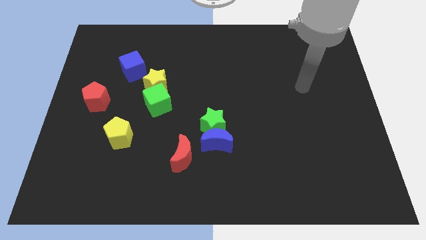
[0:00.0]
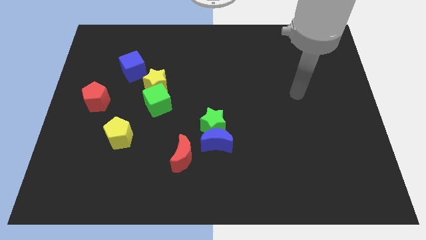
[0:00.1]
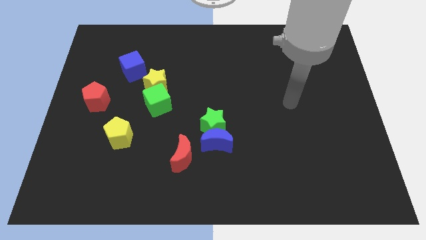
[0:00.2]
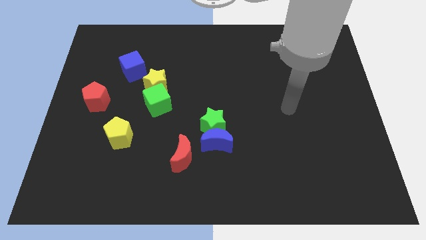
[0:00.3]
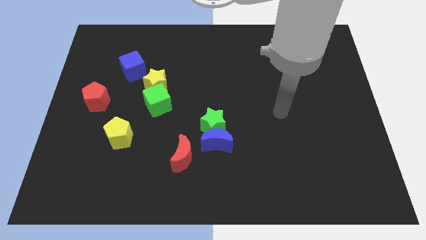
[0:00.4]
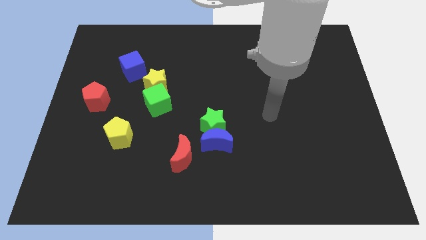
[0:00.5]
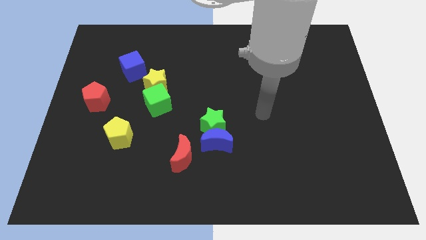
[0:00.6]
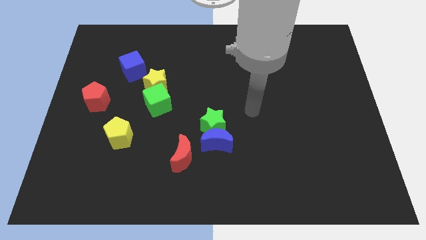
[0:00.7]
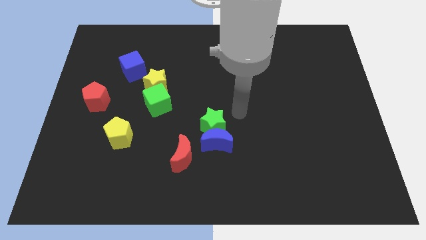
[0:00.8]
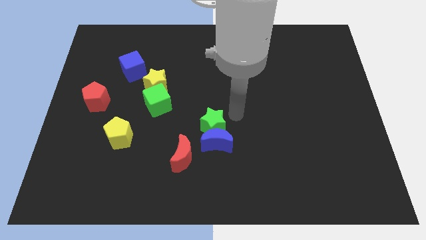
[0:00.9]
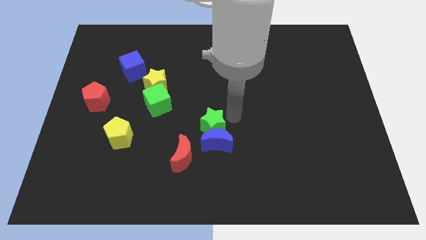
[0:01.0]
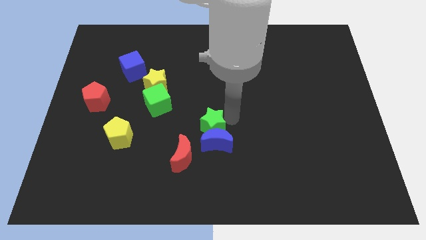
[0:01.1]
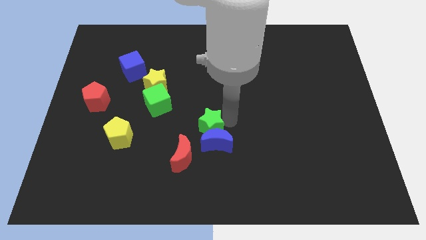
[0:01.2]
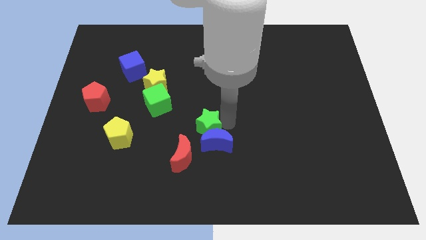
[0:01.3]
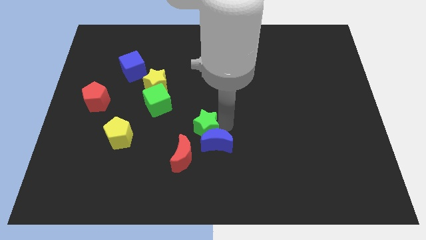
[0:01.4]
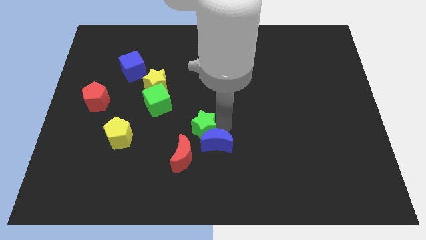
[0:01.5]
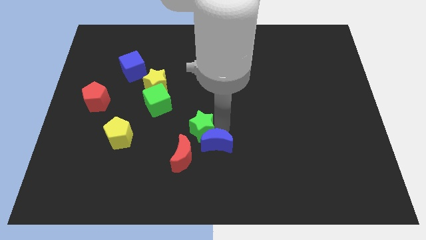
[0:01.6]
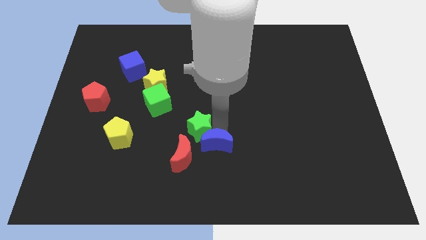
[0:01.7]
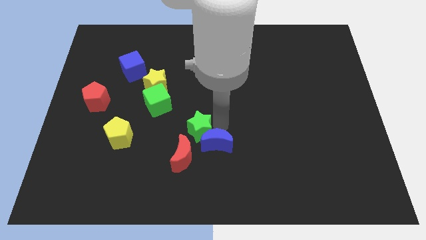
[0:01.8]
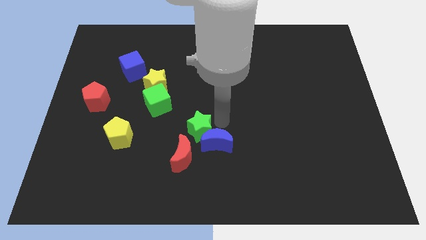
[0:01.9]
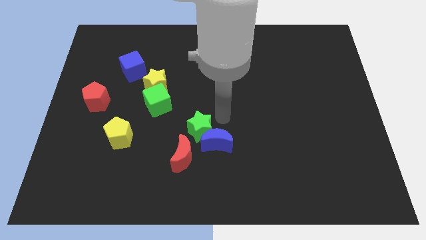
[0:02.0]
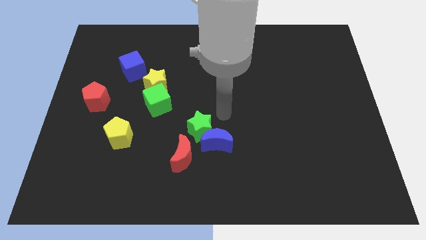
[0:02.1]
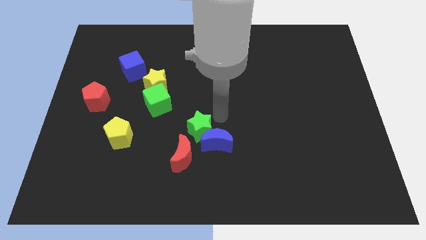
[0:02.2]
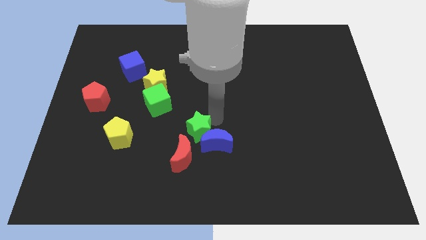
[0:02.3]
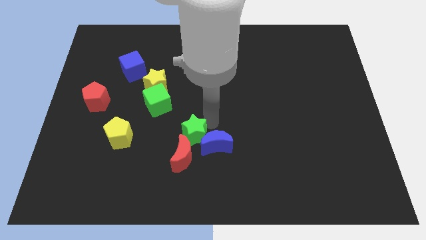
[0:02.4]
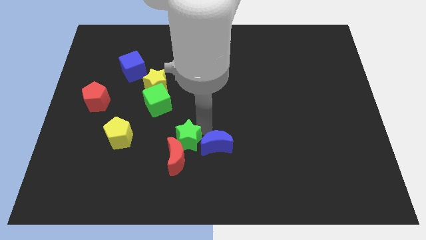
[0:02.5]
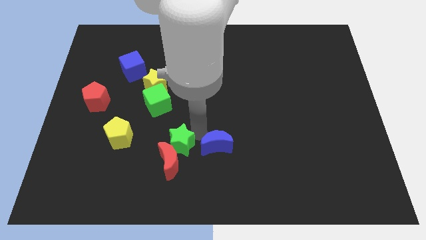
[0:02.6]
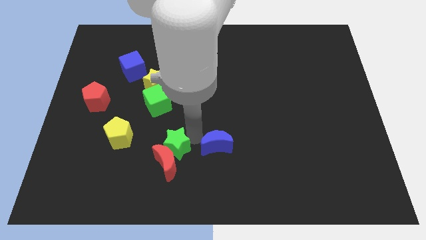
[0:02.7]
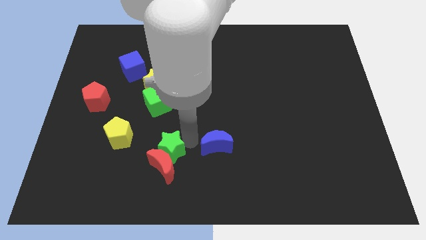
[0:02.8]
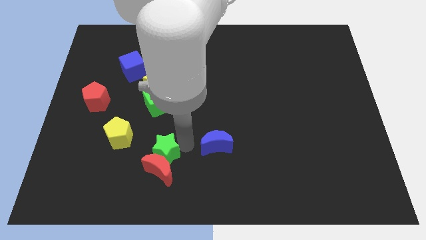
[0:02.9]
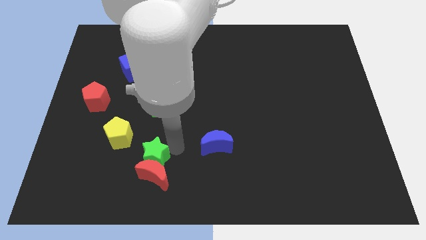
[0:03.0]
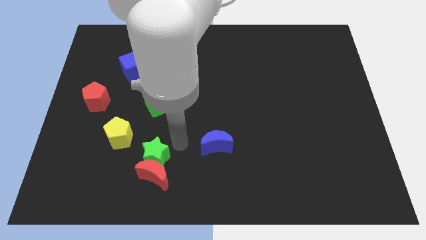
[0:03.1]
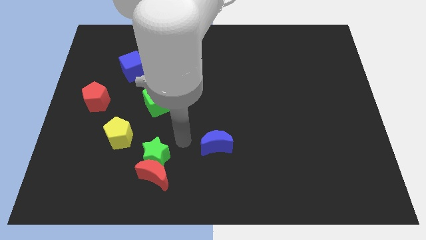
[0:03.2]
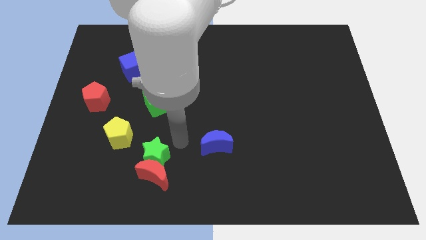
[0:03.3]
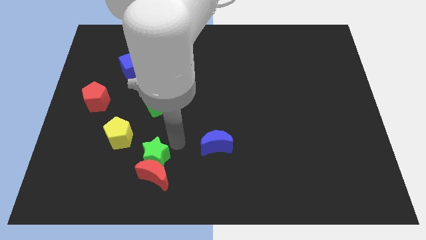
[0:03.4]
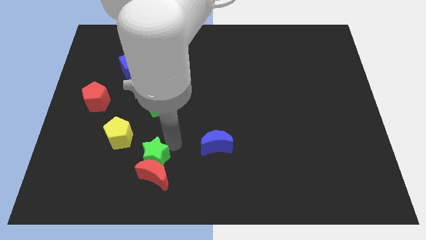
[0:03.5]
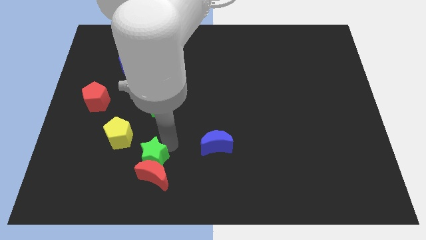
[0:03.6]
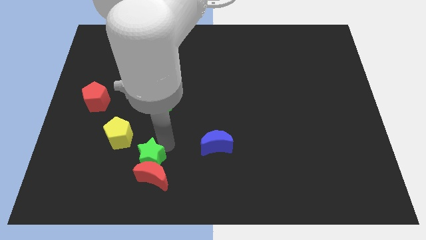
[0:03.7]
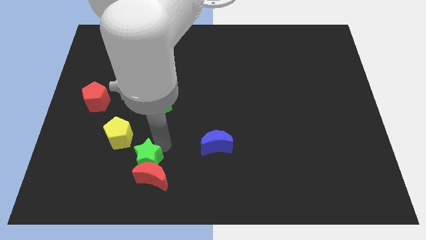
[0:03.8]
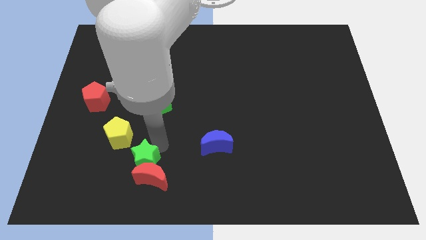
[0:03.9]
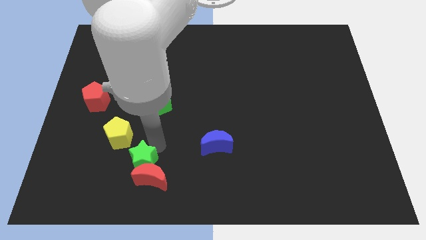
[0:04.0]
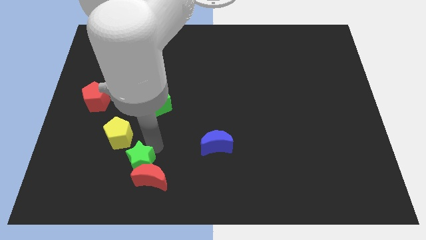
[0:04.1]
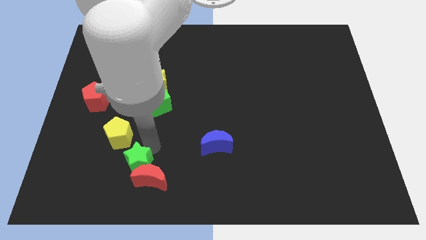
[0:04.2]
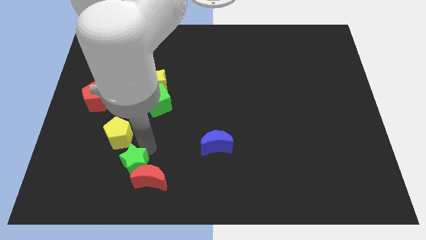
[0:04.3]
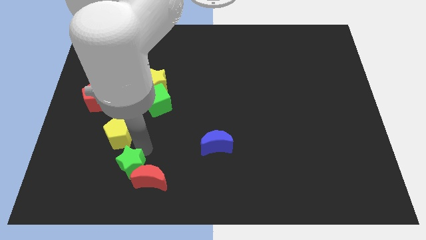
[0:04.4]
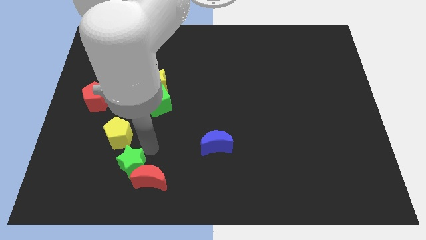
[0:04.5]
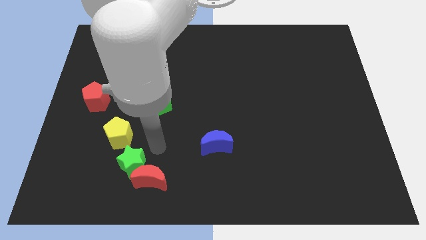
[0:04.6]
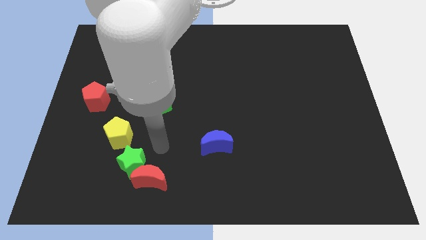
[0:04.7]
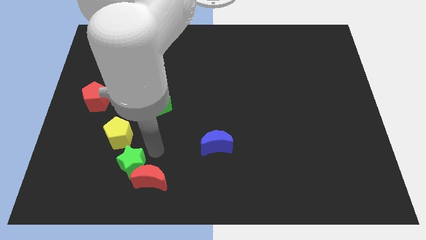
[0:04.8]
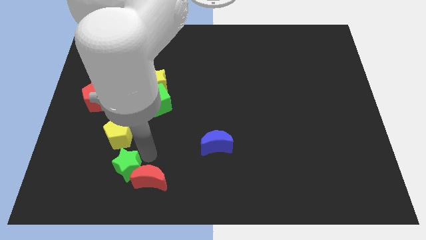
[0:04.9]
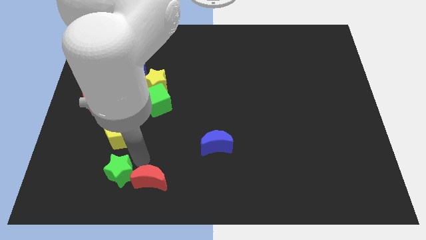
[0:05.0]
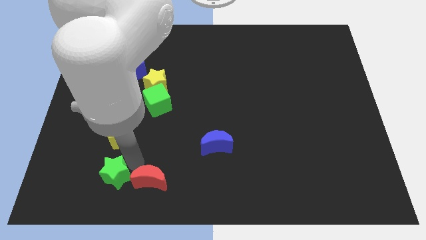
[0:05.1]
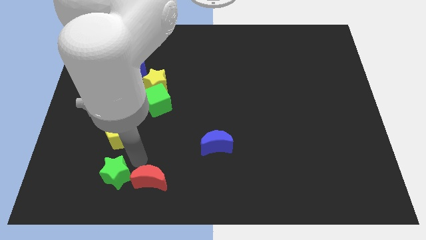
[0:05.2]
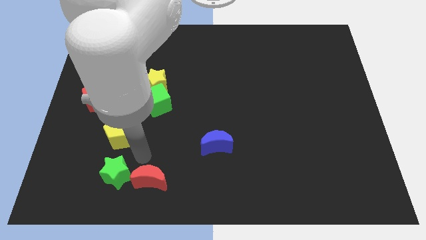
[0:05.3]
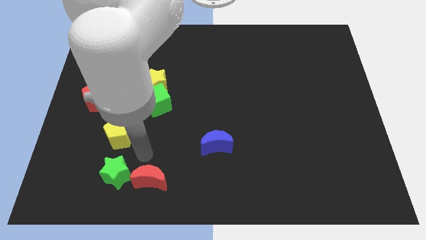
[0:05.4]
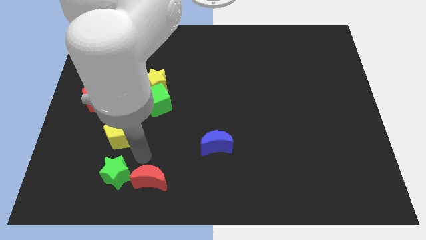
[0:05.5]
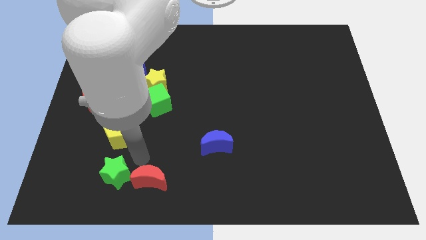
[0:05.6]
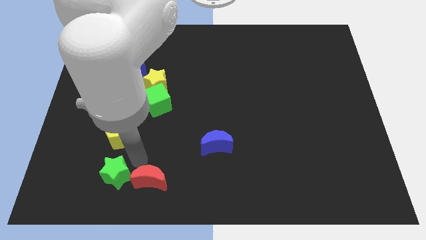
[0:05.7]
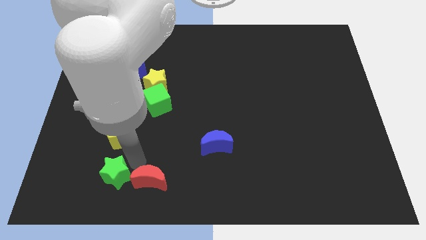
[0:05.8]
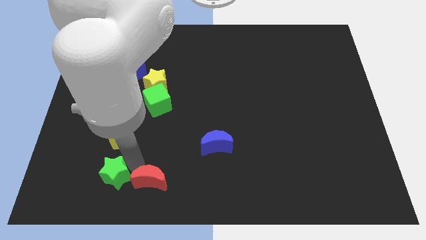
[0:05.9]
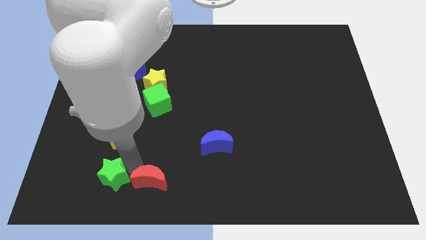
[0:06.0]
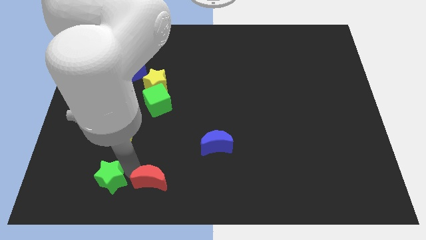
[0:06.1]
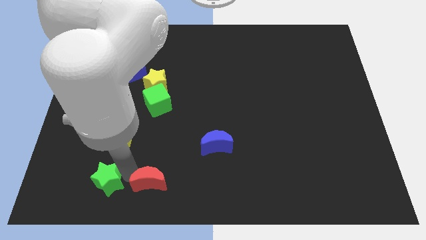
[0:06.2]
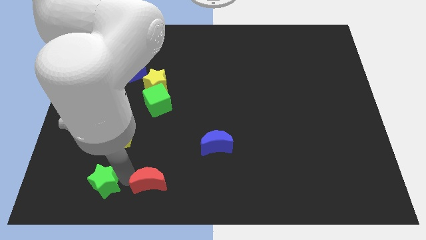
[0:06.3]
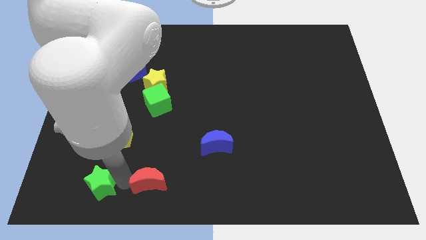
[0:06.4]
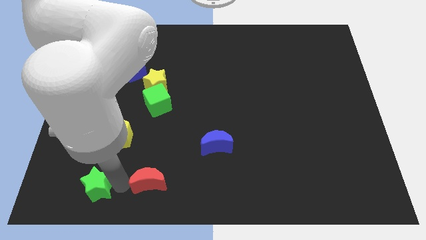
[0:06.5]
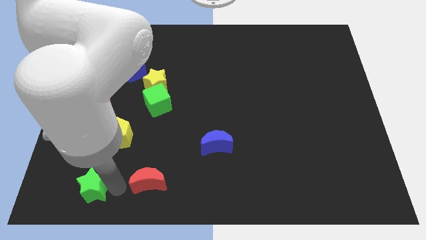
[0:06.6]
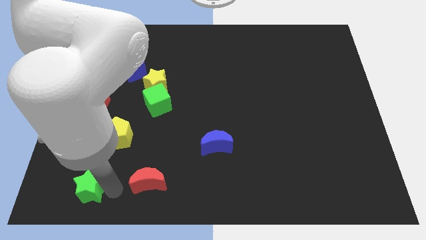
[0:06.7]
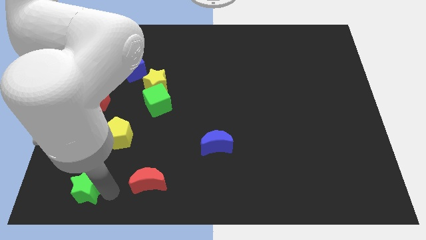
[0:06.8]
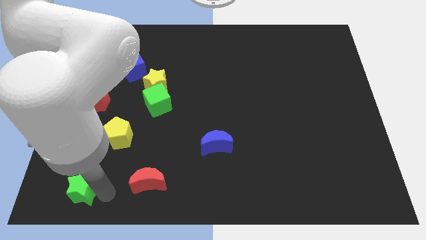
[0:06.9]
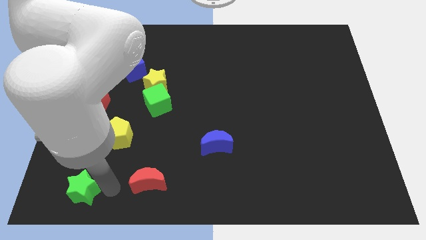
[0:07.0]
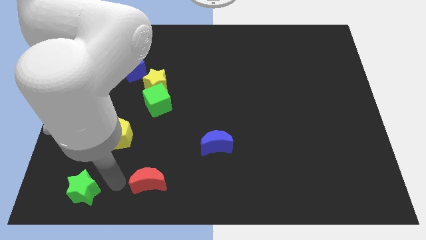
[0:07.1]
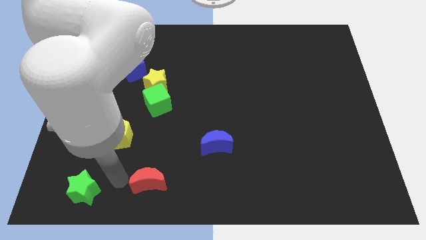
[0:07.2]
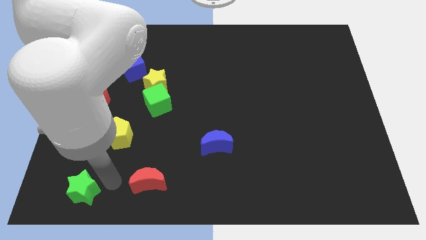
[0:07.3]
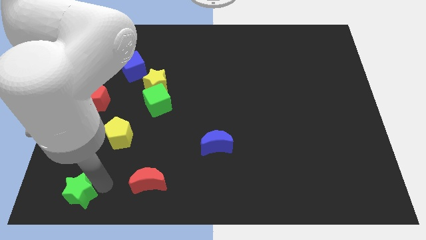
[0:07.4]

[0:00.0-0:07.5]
move the green star to the bottom left of the board
